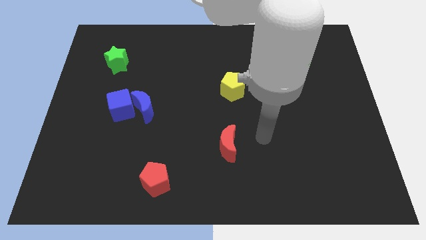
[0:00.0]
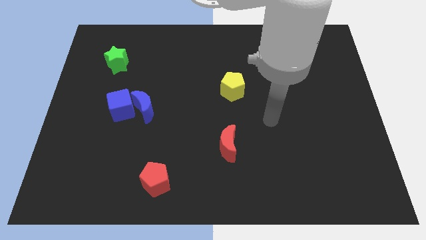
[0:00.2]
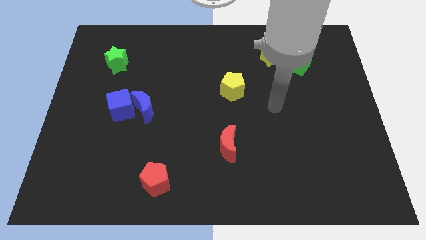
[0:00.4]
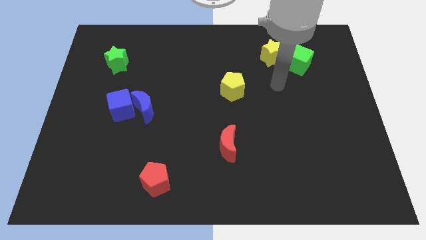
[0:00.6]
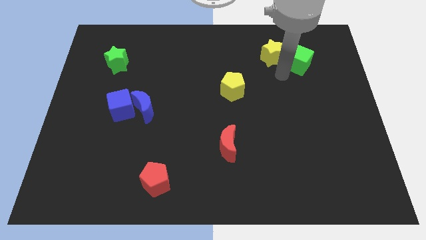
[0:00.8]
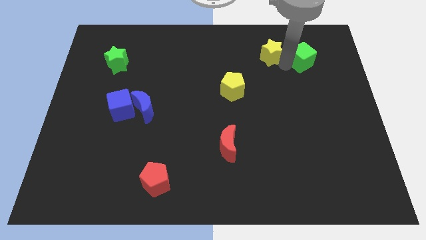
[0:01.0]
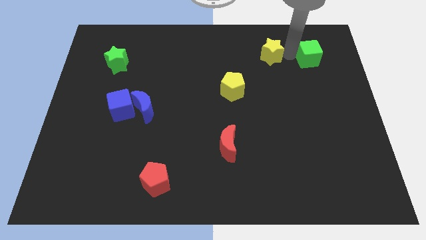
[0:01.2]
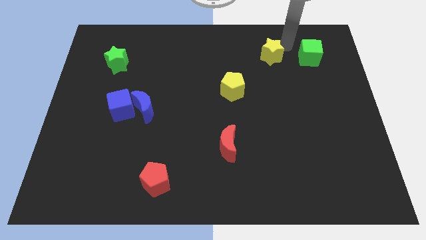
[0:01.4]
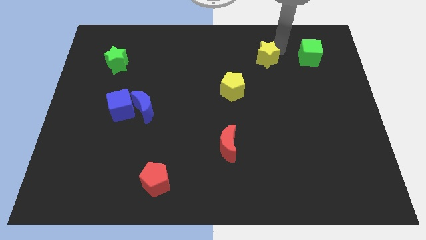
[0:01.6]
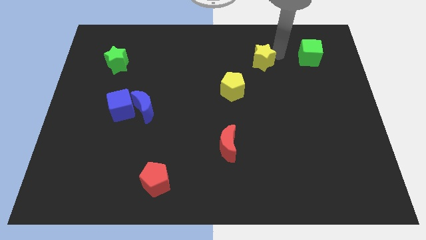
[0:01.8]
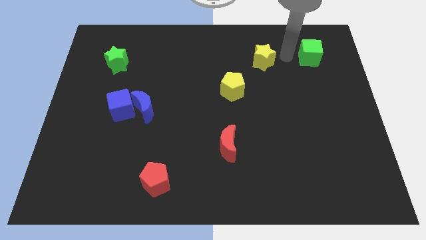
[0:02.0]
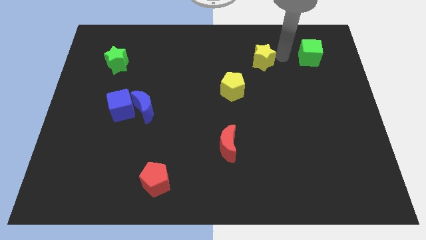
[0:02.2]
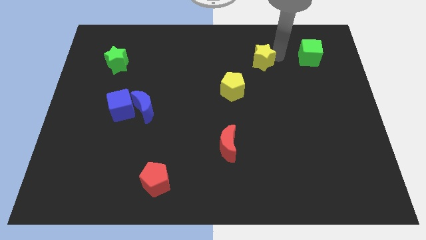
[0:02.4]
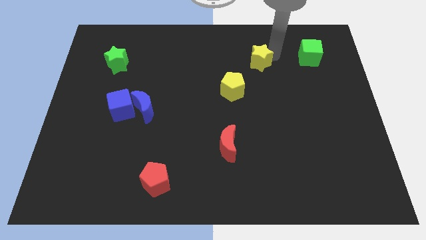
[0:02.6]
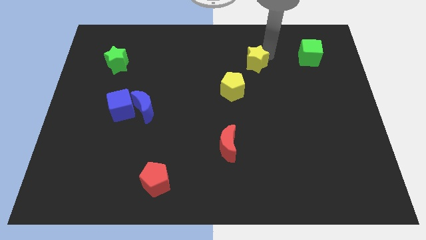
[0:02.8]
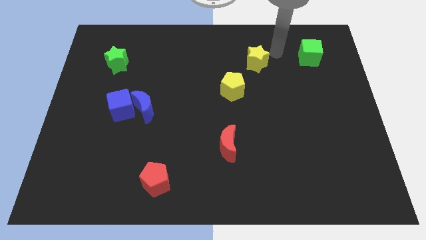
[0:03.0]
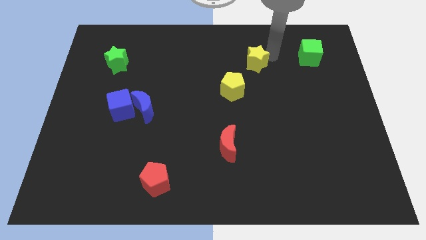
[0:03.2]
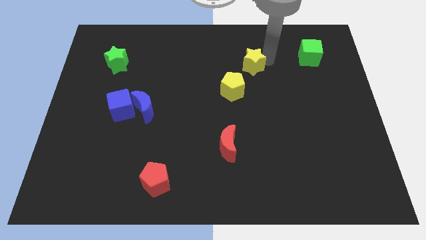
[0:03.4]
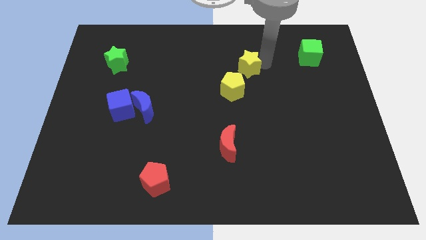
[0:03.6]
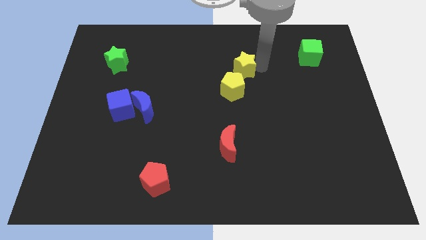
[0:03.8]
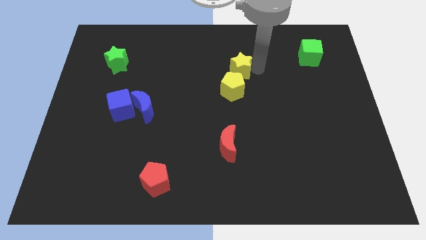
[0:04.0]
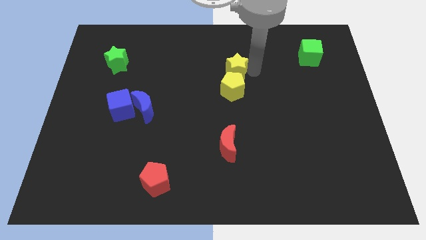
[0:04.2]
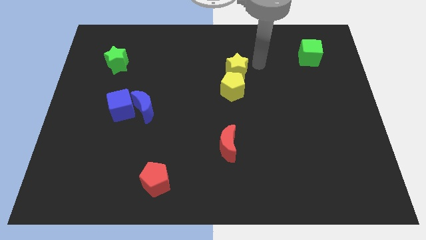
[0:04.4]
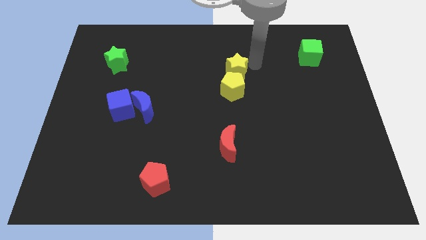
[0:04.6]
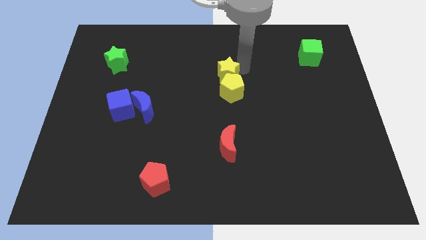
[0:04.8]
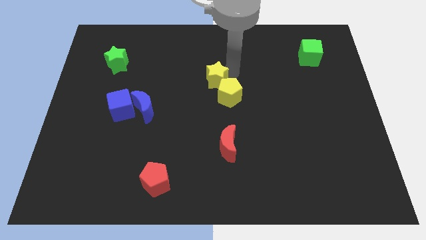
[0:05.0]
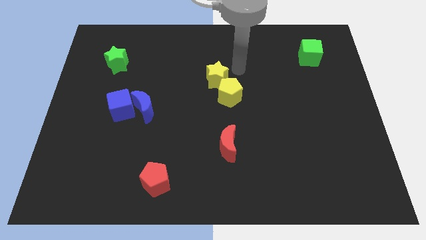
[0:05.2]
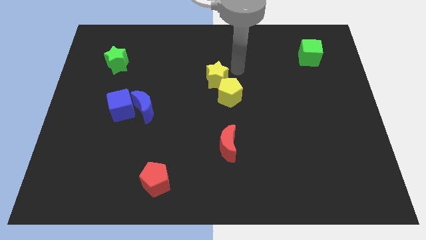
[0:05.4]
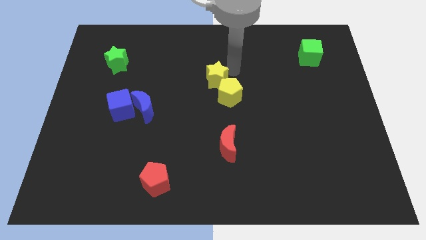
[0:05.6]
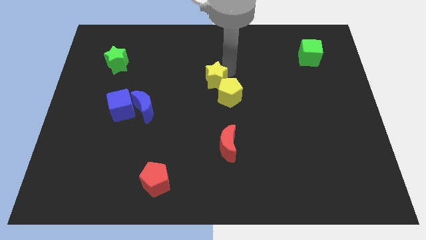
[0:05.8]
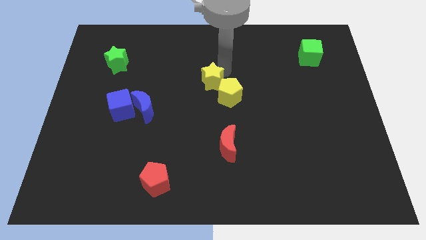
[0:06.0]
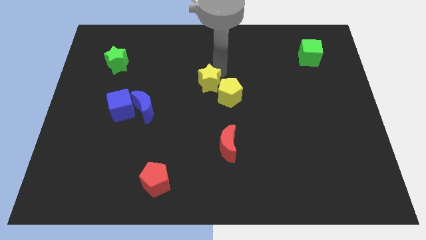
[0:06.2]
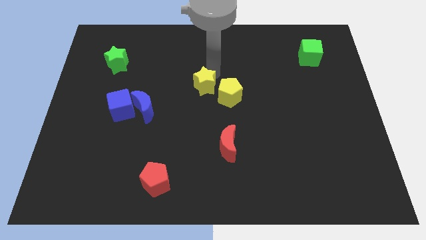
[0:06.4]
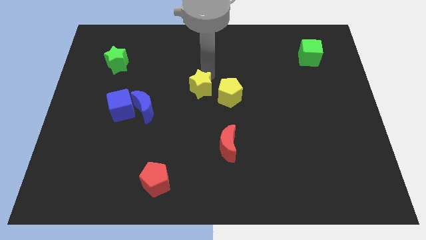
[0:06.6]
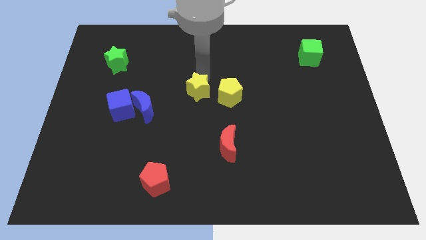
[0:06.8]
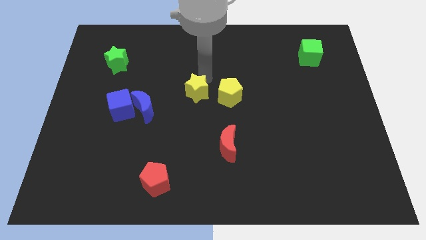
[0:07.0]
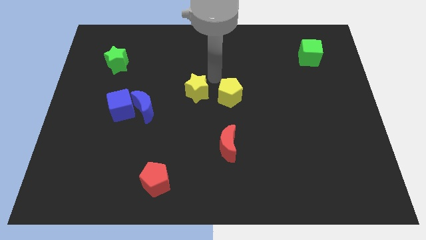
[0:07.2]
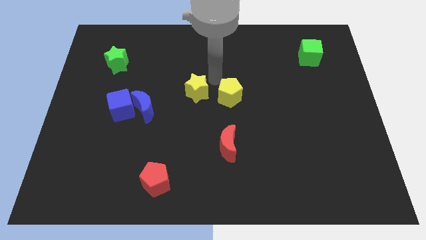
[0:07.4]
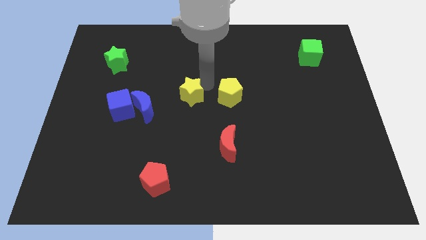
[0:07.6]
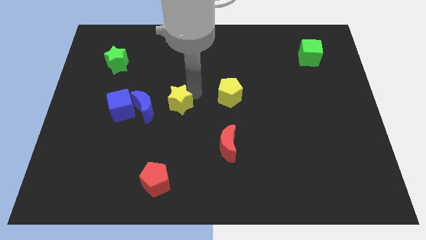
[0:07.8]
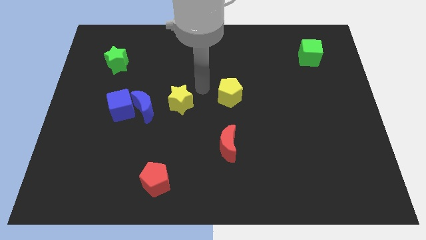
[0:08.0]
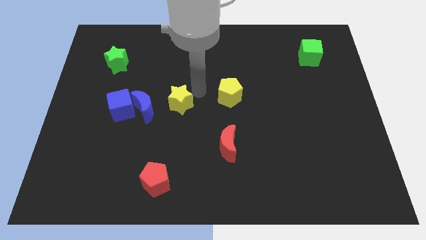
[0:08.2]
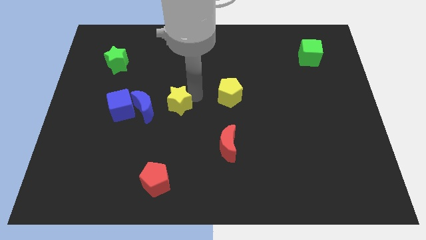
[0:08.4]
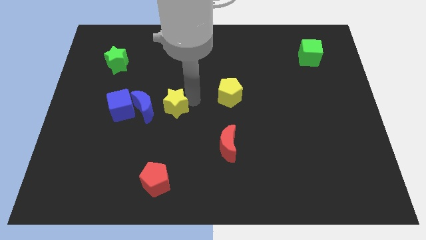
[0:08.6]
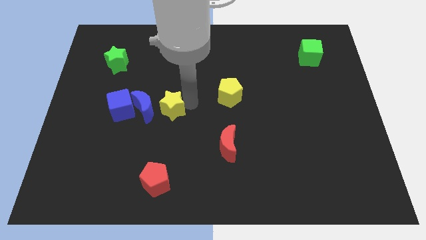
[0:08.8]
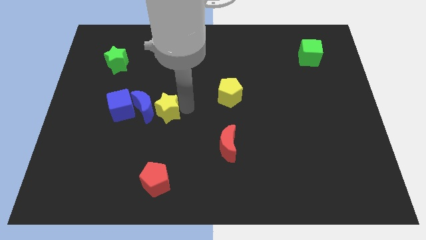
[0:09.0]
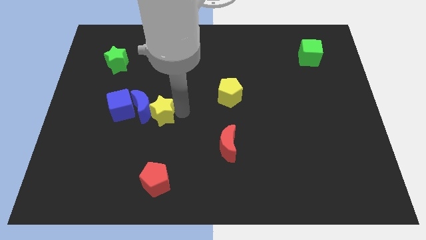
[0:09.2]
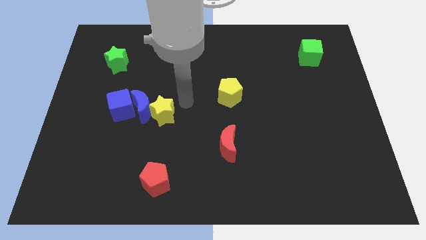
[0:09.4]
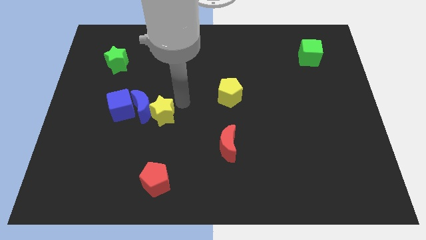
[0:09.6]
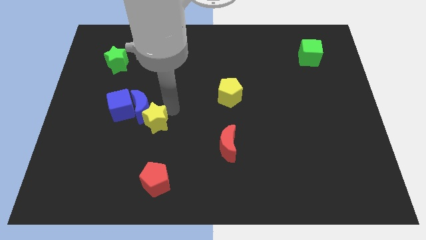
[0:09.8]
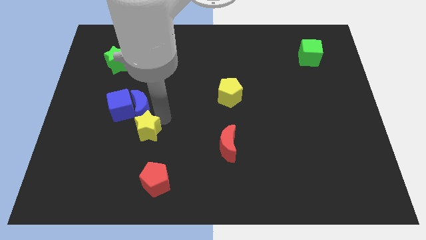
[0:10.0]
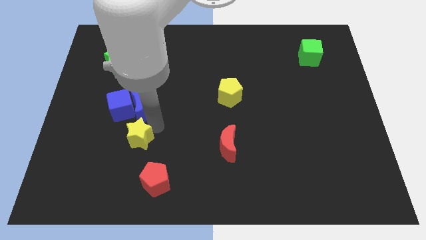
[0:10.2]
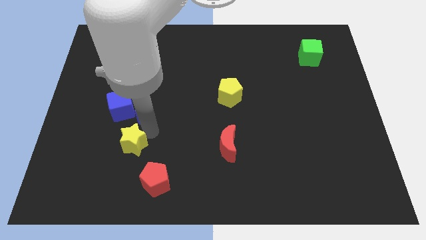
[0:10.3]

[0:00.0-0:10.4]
put the yellow star to the bottom of the blue cube

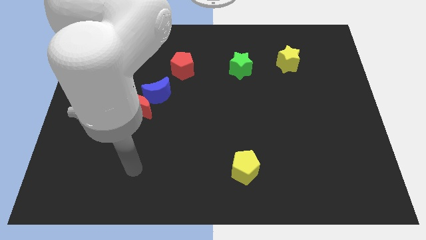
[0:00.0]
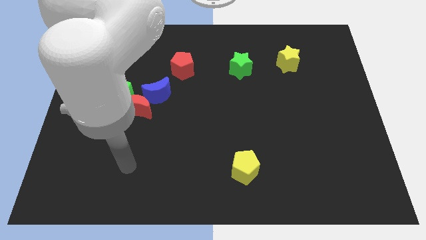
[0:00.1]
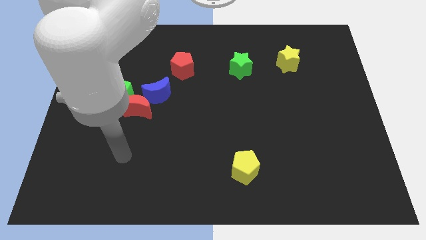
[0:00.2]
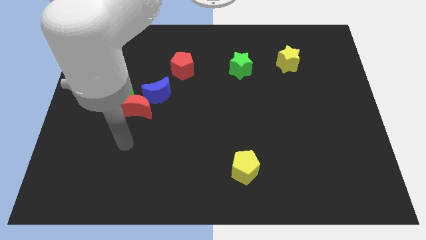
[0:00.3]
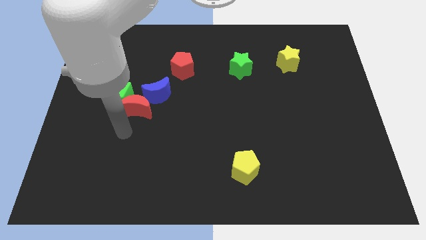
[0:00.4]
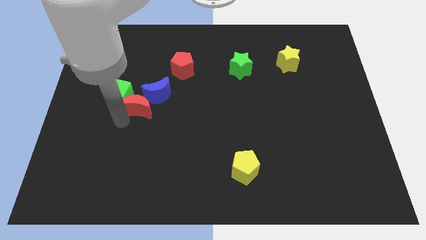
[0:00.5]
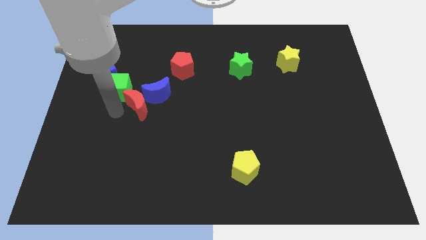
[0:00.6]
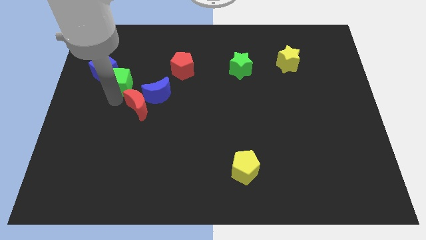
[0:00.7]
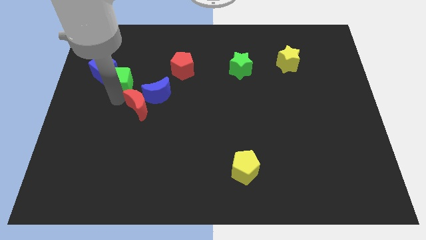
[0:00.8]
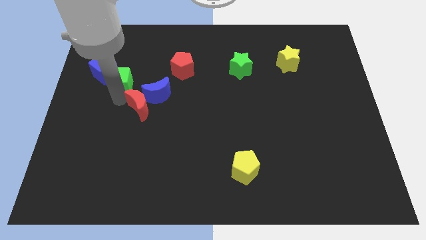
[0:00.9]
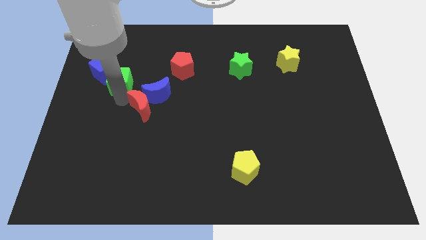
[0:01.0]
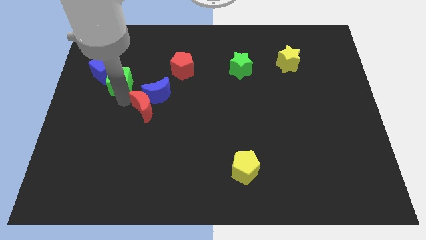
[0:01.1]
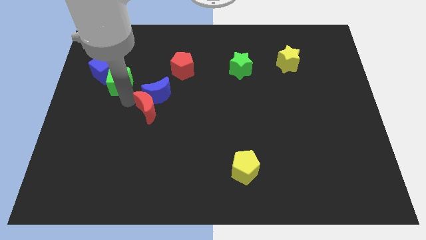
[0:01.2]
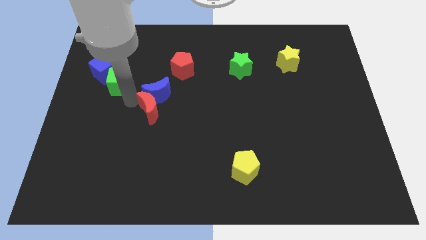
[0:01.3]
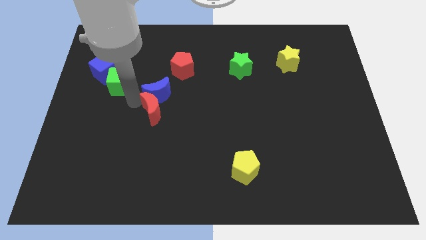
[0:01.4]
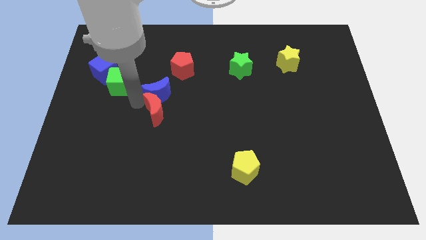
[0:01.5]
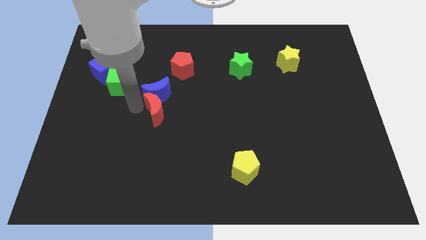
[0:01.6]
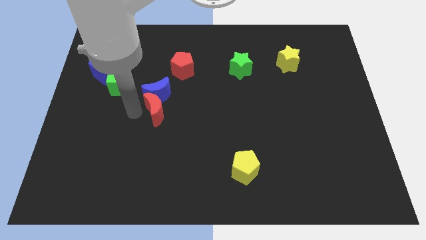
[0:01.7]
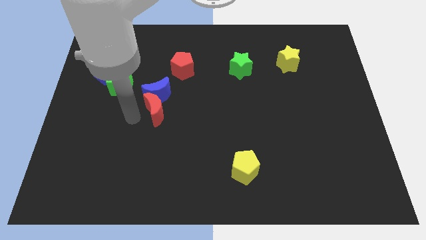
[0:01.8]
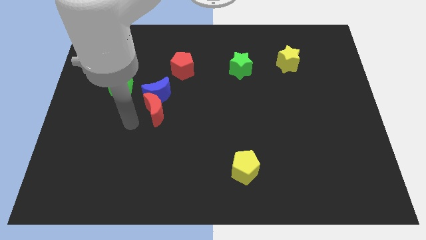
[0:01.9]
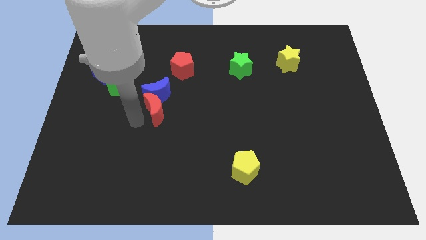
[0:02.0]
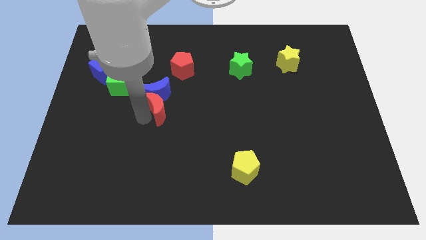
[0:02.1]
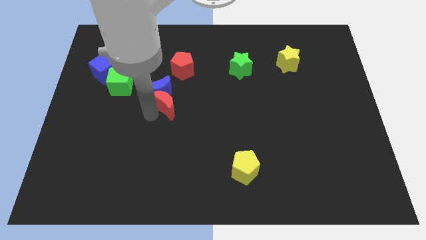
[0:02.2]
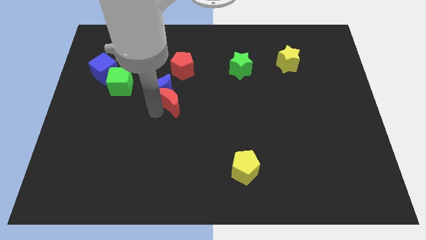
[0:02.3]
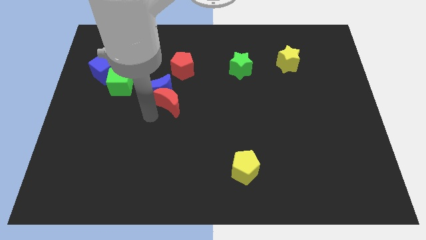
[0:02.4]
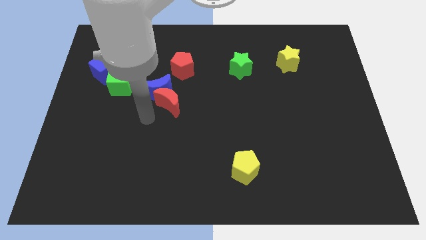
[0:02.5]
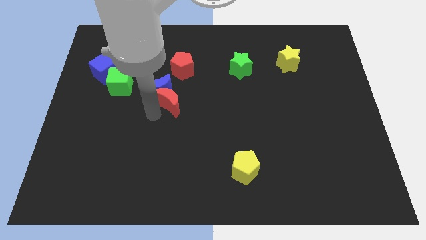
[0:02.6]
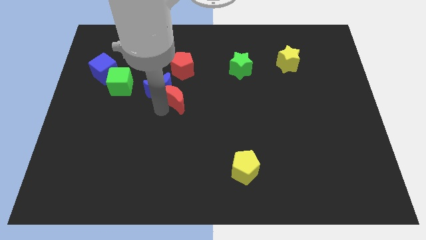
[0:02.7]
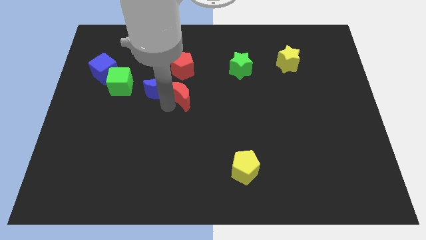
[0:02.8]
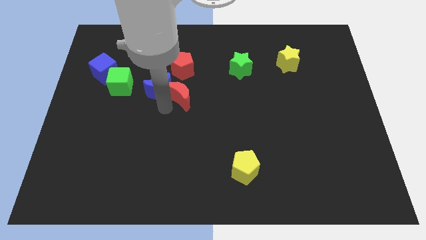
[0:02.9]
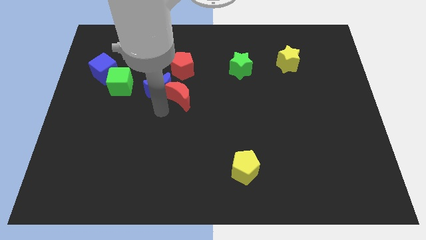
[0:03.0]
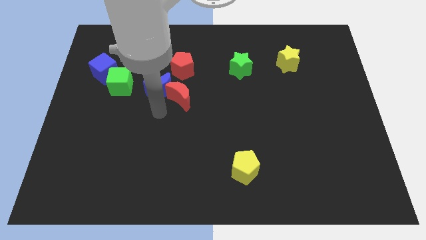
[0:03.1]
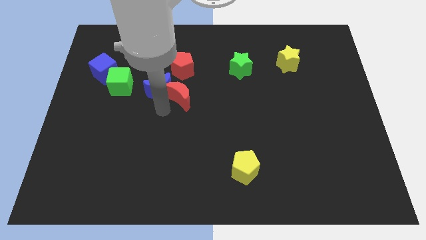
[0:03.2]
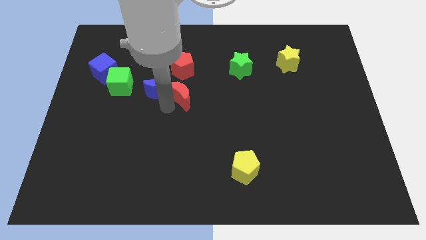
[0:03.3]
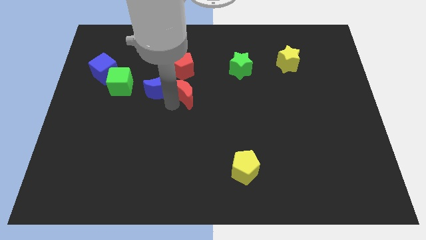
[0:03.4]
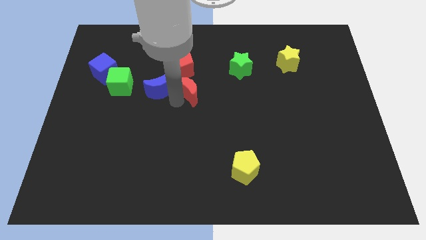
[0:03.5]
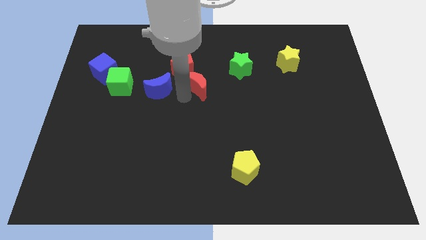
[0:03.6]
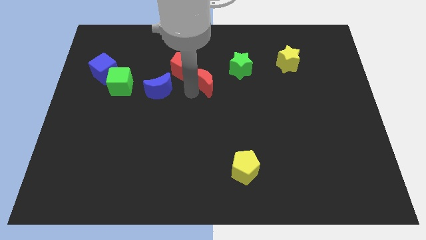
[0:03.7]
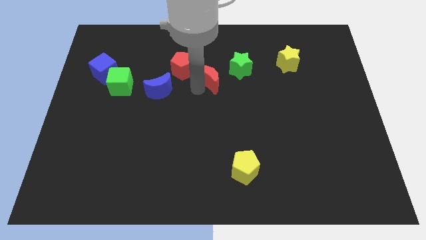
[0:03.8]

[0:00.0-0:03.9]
move the red moon right of the red pentagon
